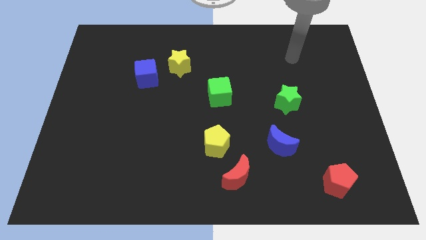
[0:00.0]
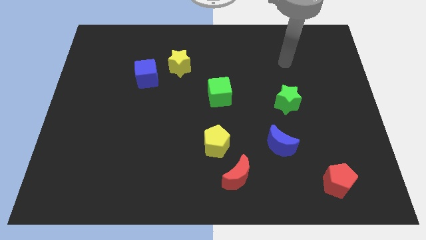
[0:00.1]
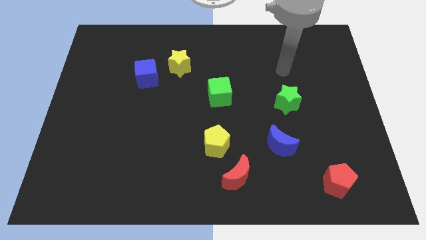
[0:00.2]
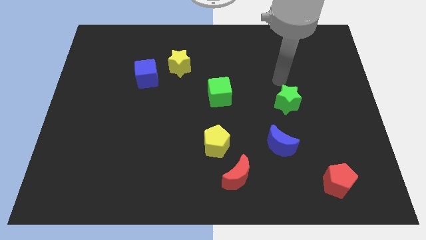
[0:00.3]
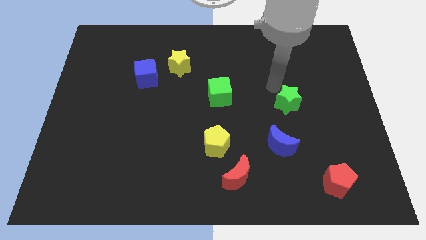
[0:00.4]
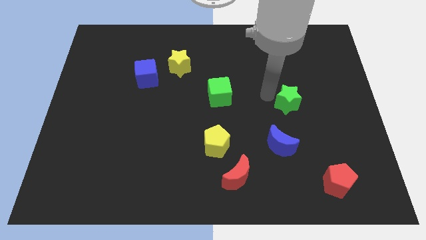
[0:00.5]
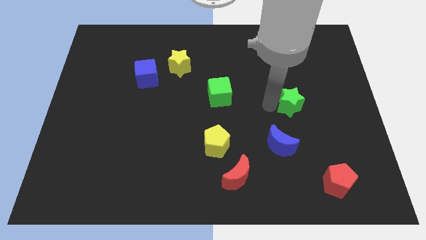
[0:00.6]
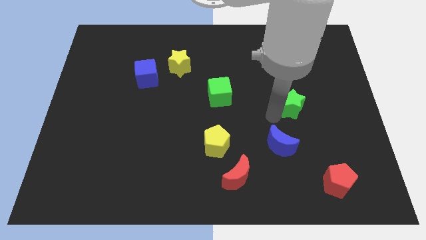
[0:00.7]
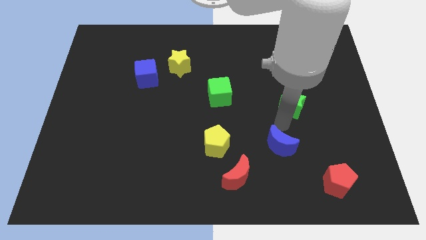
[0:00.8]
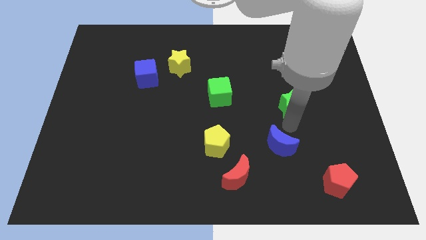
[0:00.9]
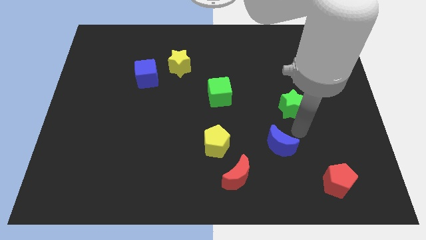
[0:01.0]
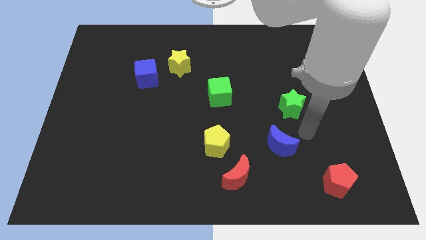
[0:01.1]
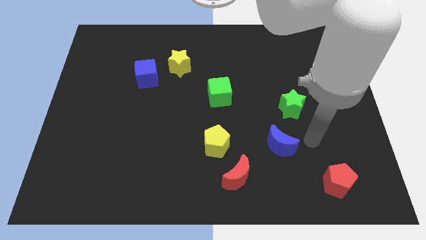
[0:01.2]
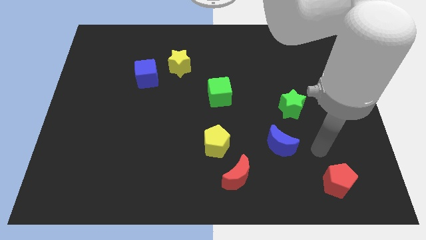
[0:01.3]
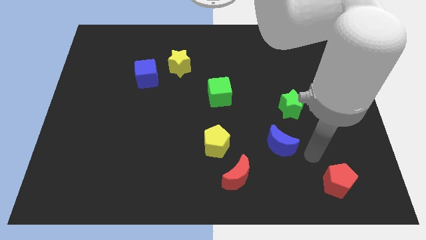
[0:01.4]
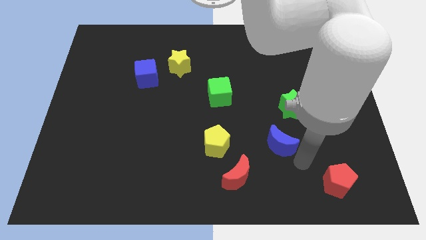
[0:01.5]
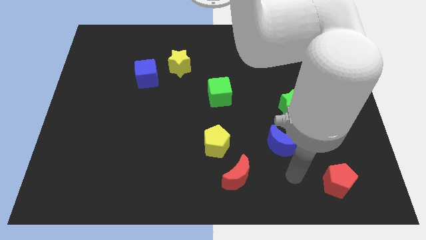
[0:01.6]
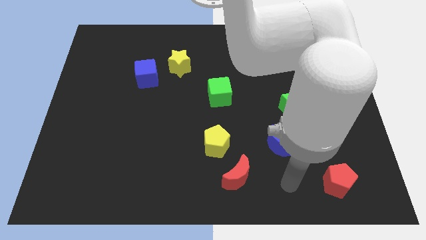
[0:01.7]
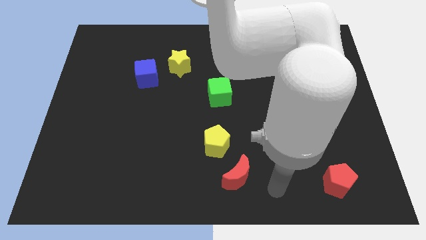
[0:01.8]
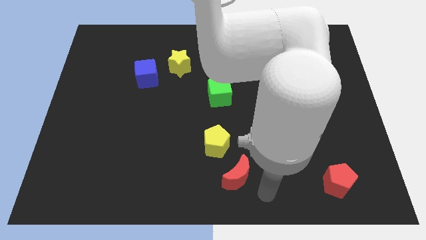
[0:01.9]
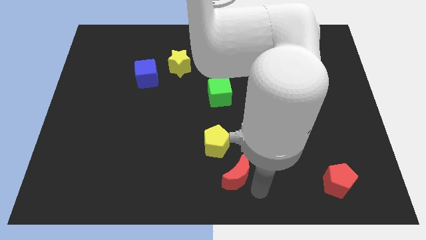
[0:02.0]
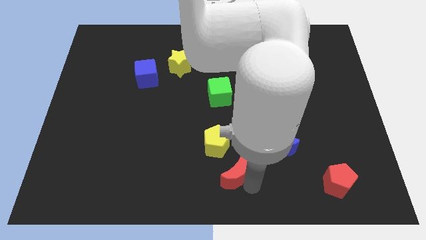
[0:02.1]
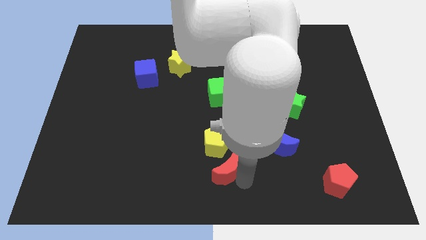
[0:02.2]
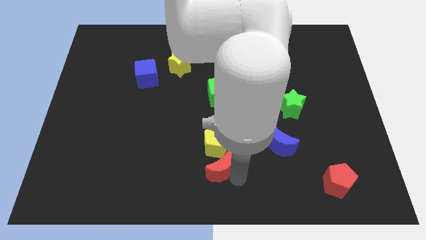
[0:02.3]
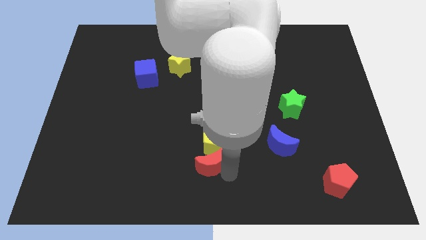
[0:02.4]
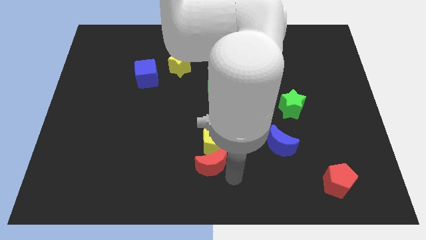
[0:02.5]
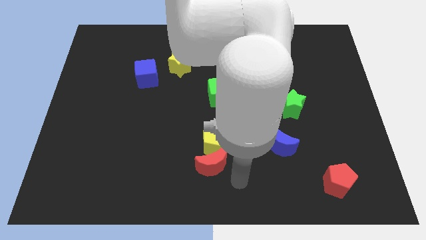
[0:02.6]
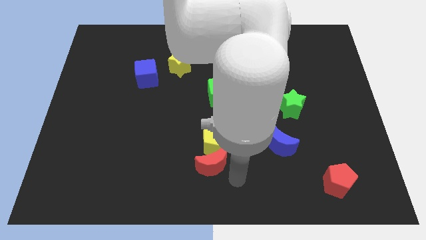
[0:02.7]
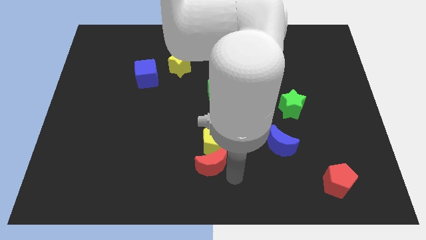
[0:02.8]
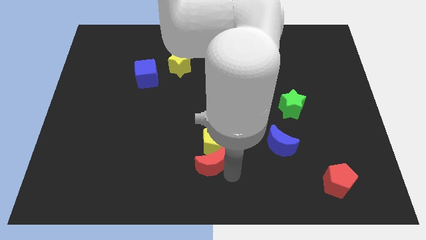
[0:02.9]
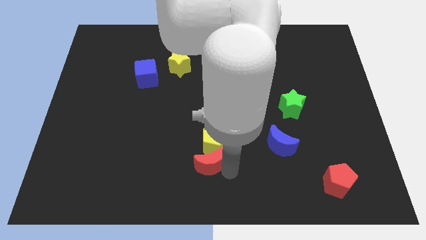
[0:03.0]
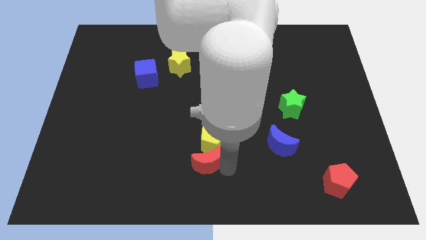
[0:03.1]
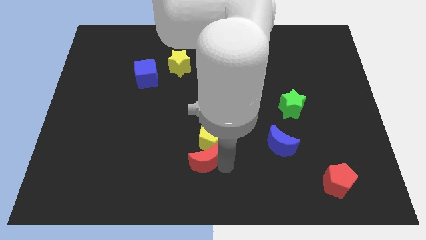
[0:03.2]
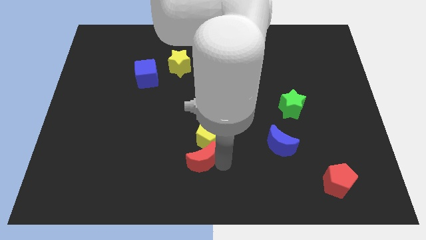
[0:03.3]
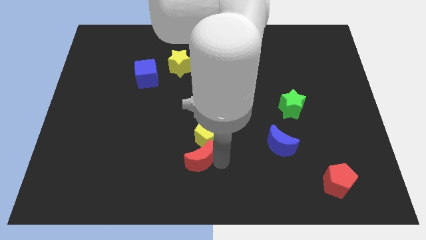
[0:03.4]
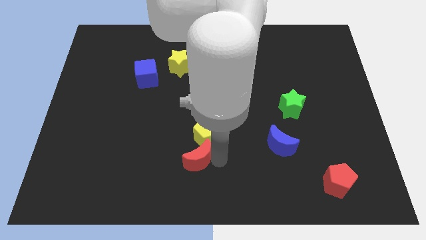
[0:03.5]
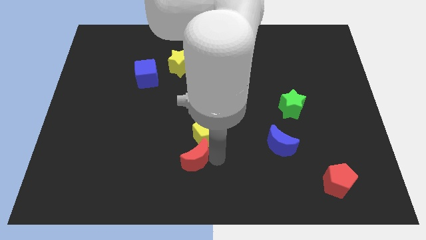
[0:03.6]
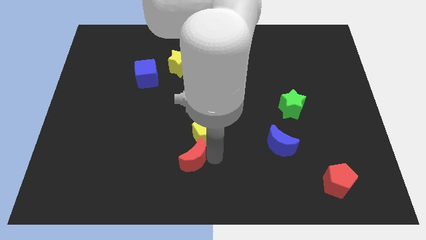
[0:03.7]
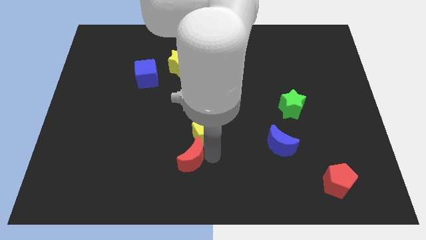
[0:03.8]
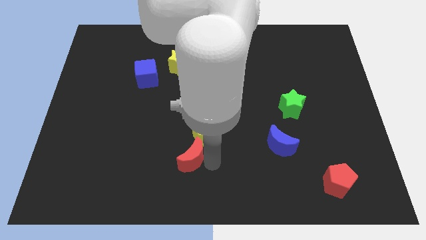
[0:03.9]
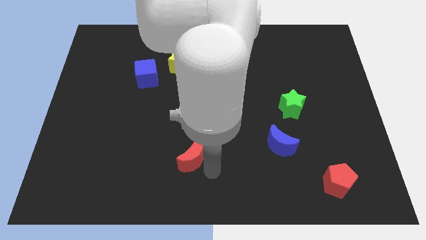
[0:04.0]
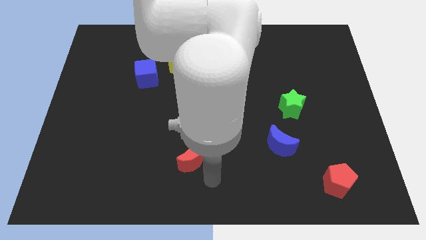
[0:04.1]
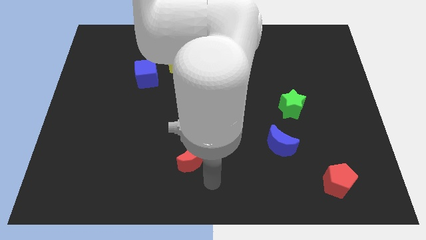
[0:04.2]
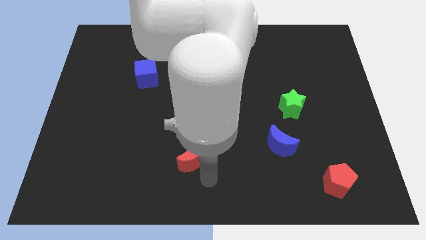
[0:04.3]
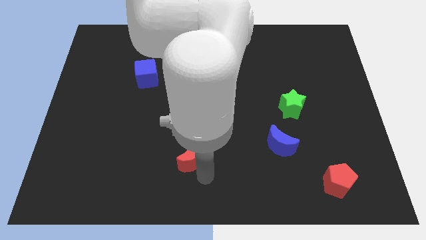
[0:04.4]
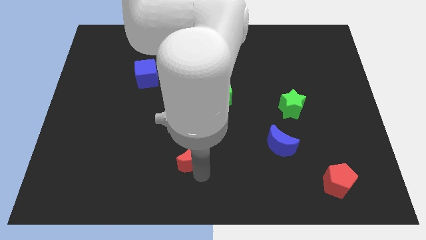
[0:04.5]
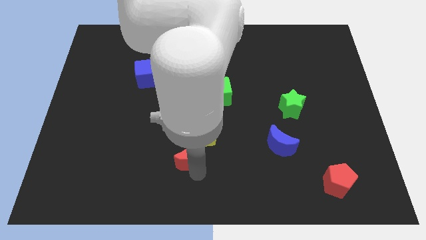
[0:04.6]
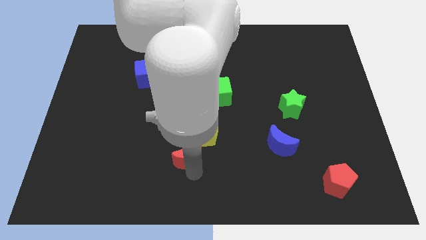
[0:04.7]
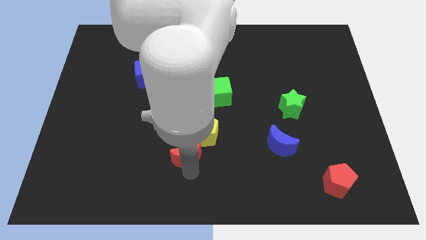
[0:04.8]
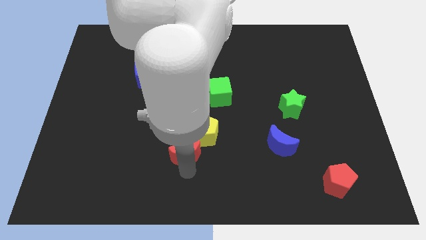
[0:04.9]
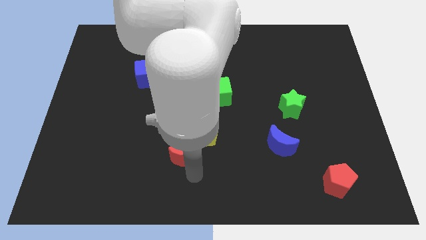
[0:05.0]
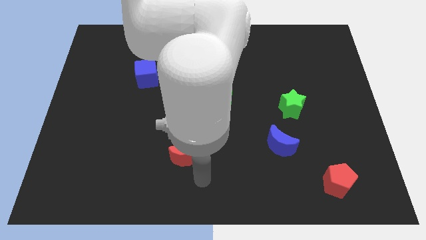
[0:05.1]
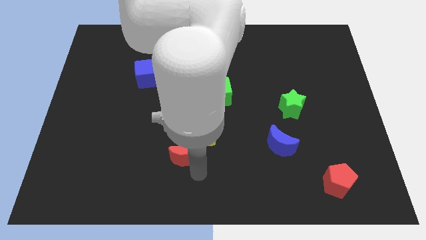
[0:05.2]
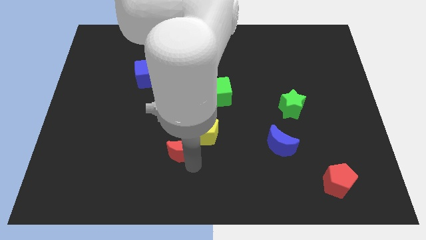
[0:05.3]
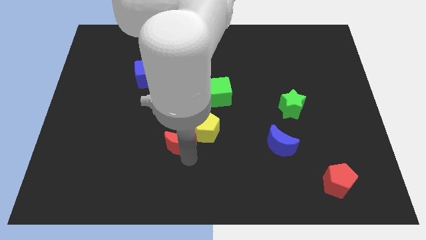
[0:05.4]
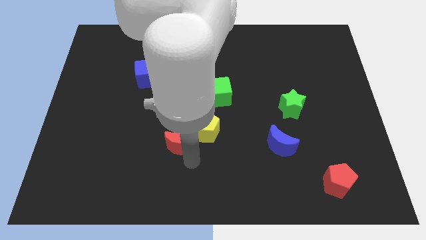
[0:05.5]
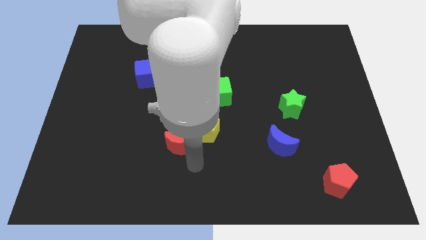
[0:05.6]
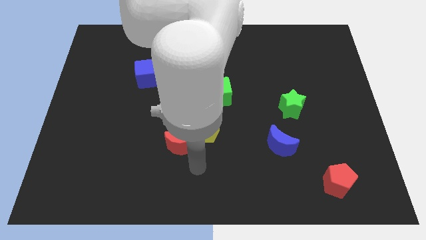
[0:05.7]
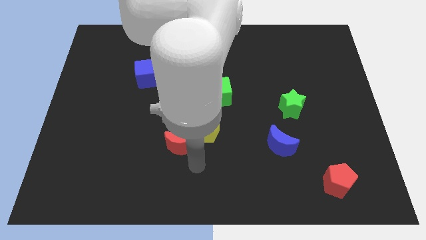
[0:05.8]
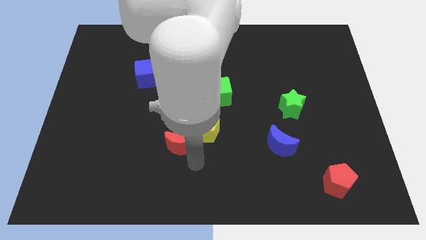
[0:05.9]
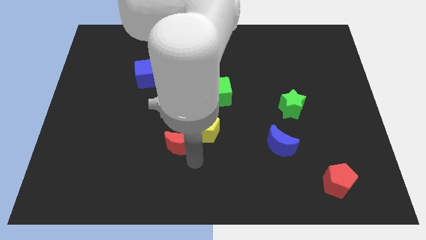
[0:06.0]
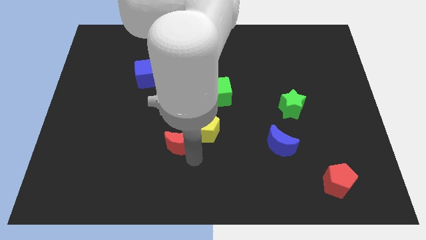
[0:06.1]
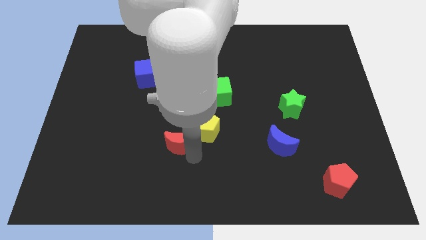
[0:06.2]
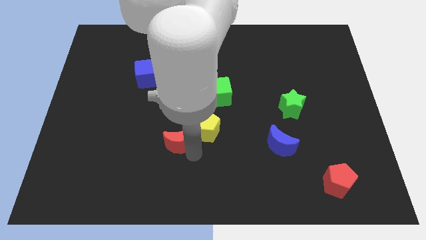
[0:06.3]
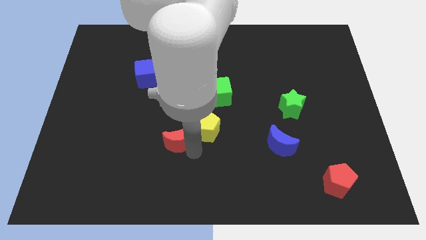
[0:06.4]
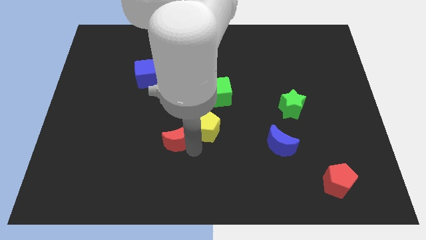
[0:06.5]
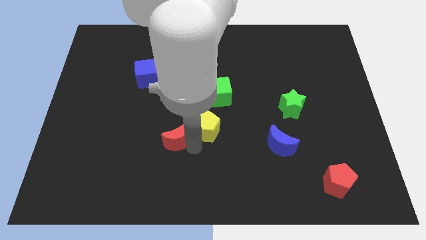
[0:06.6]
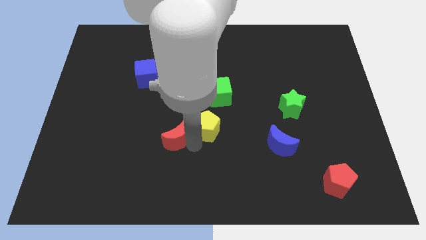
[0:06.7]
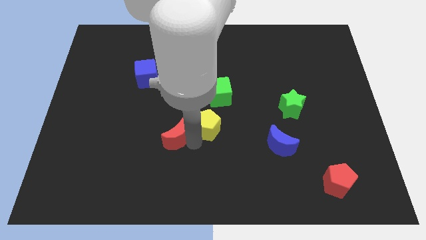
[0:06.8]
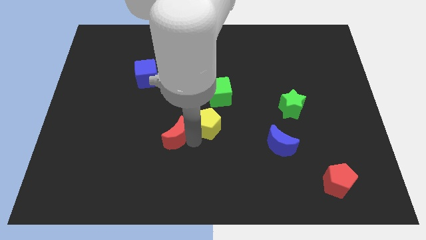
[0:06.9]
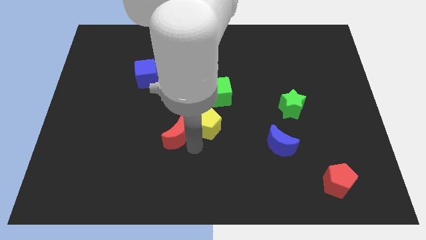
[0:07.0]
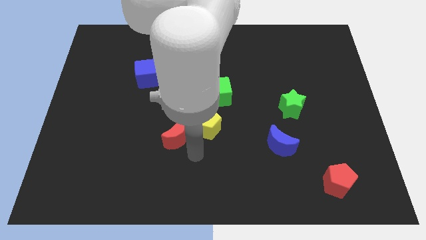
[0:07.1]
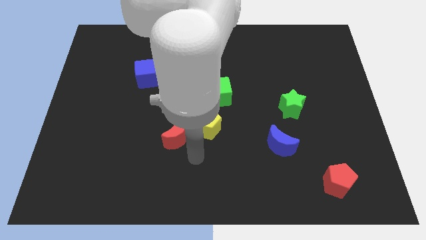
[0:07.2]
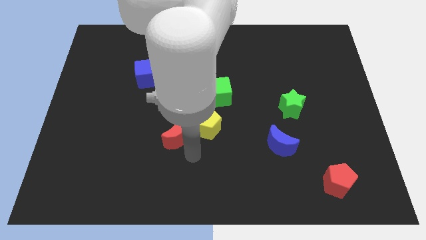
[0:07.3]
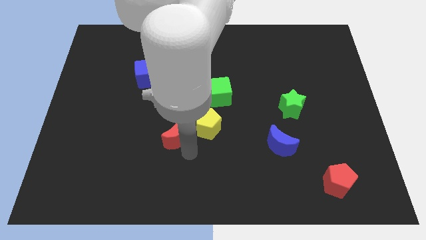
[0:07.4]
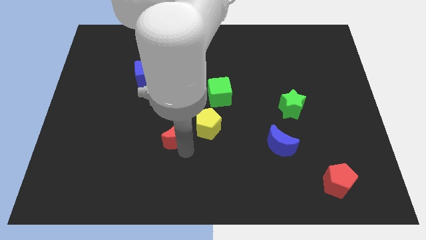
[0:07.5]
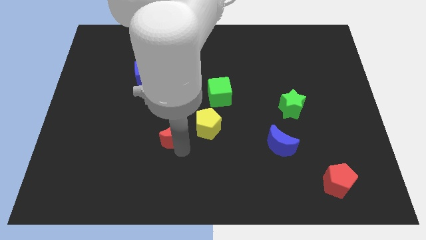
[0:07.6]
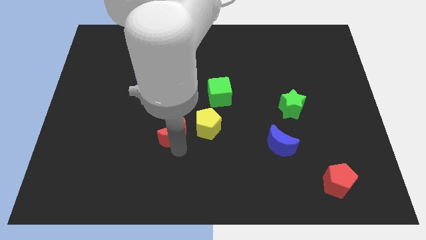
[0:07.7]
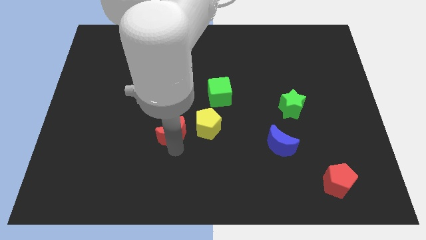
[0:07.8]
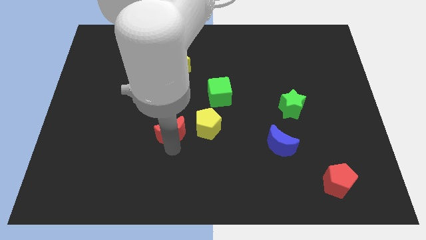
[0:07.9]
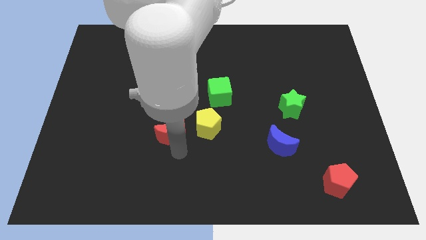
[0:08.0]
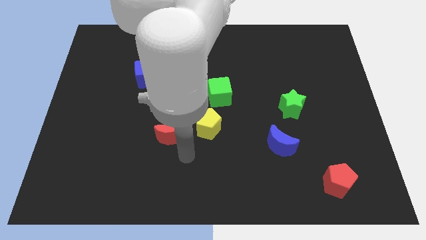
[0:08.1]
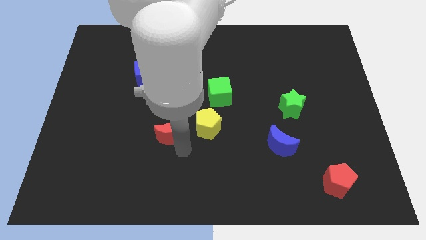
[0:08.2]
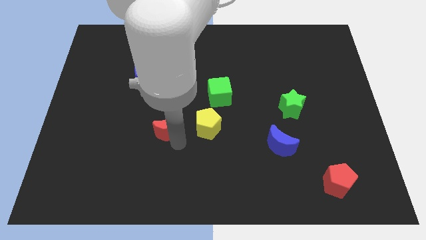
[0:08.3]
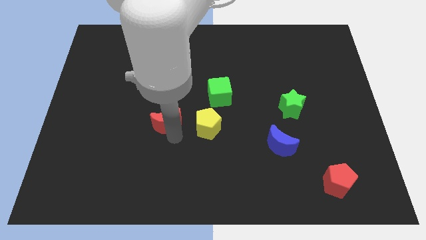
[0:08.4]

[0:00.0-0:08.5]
move the red moon up and then to the left
